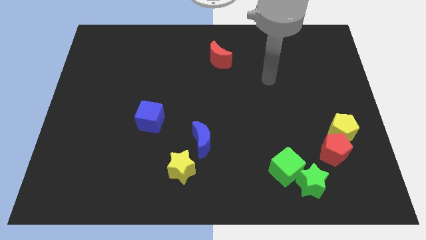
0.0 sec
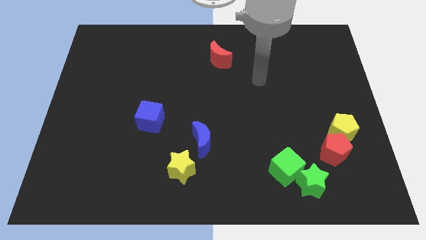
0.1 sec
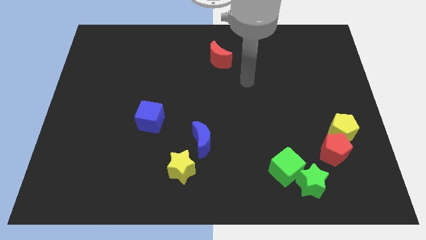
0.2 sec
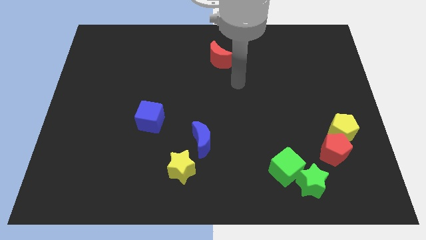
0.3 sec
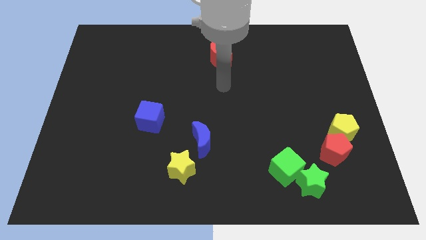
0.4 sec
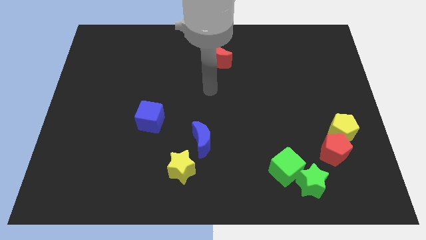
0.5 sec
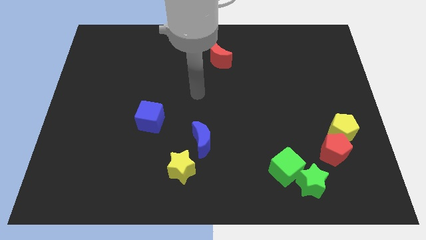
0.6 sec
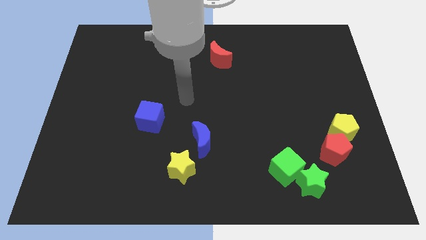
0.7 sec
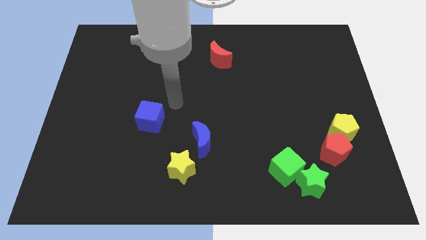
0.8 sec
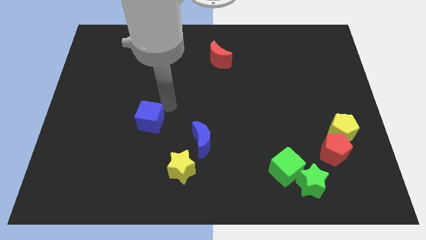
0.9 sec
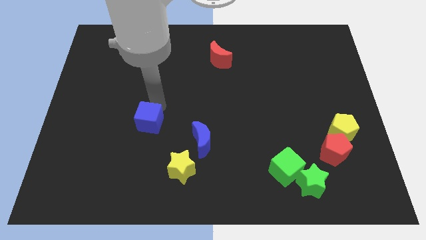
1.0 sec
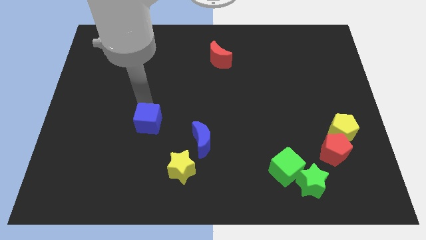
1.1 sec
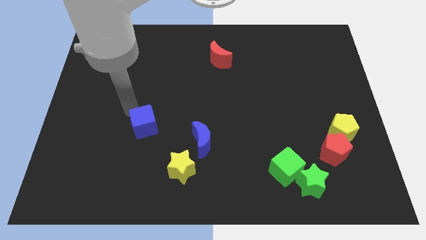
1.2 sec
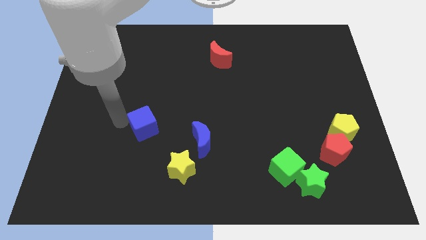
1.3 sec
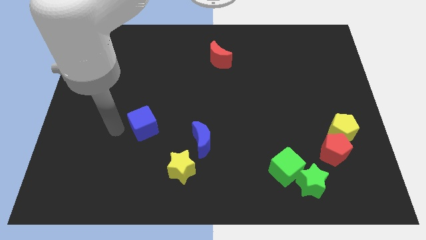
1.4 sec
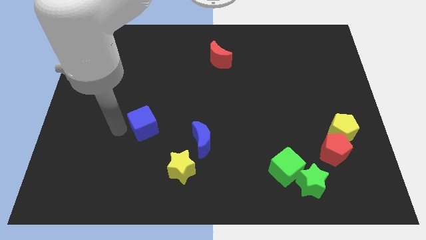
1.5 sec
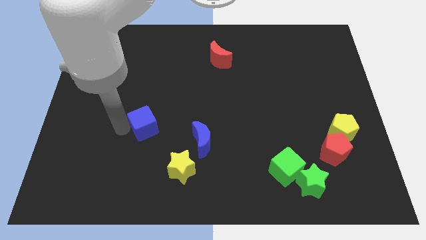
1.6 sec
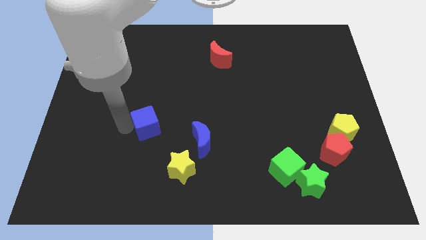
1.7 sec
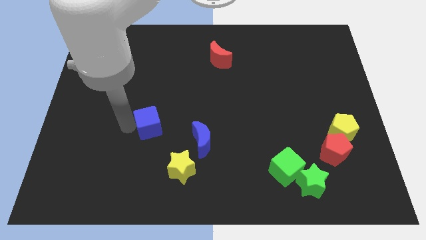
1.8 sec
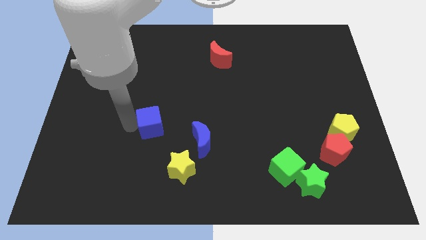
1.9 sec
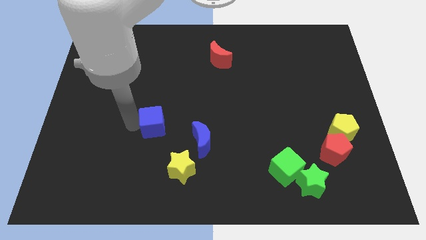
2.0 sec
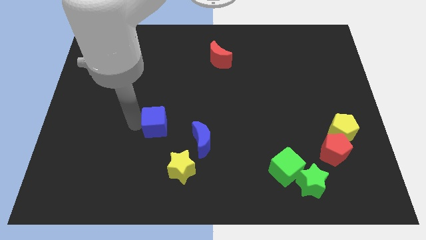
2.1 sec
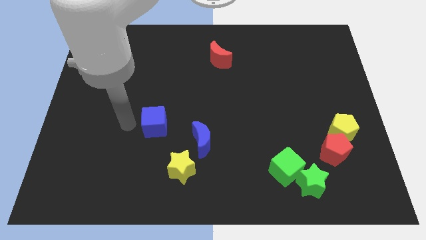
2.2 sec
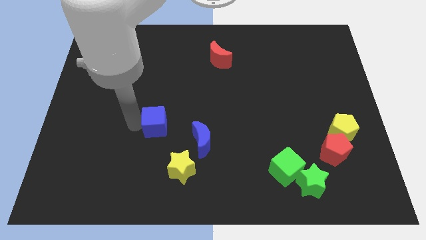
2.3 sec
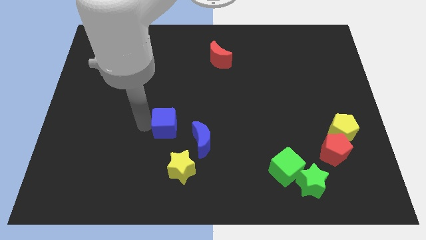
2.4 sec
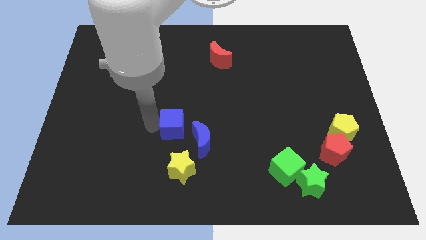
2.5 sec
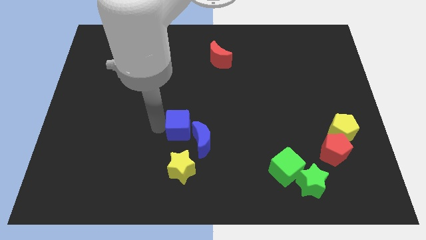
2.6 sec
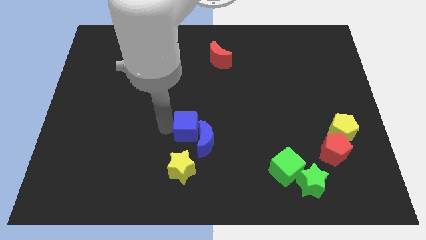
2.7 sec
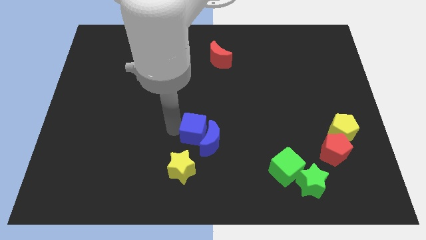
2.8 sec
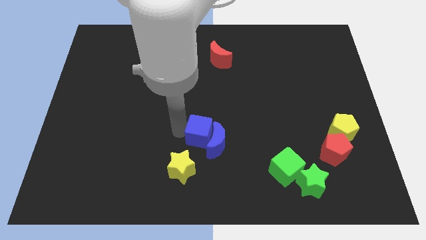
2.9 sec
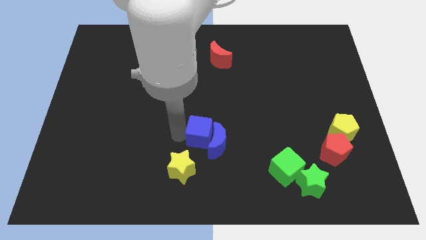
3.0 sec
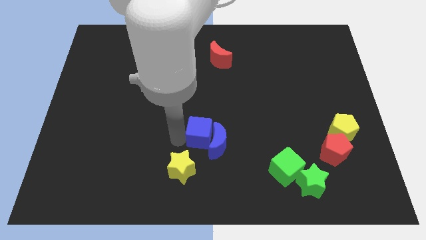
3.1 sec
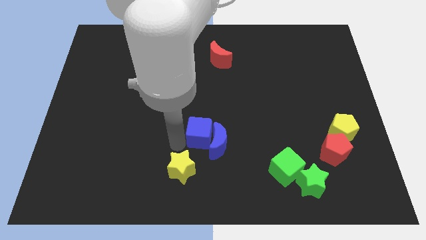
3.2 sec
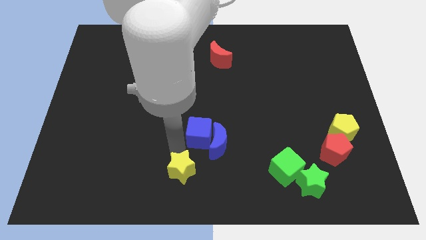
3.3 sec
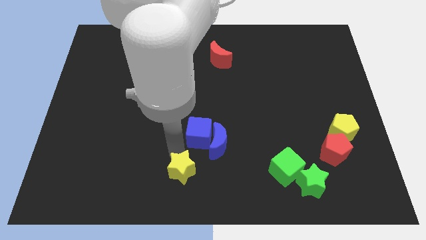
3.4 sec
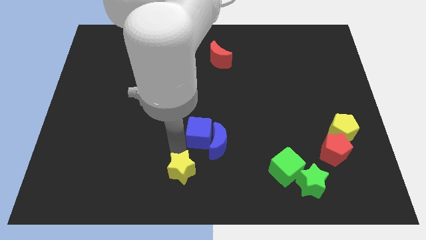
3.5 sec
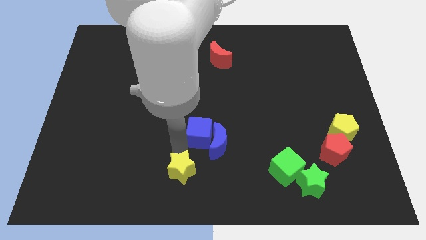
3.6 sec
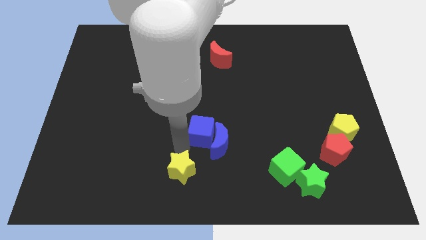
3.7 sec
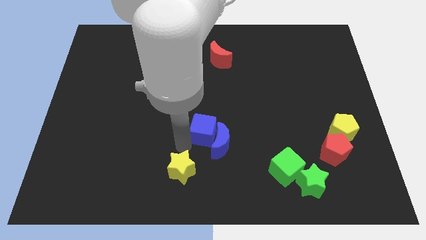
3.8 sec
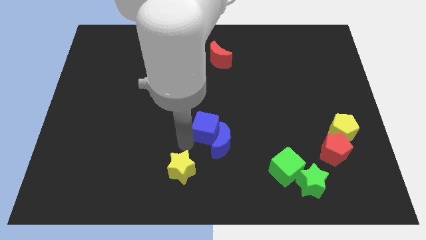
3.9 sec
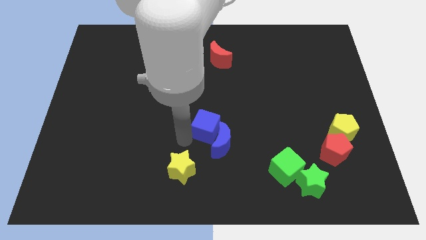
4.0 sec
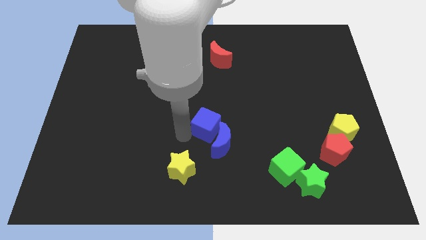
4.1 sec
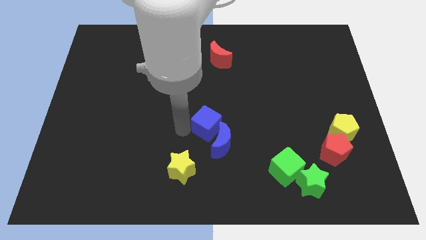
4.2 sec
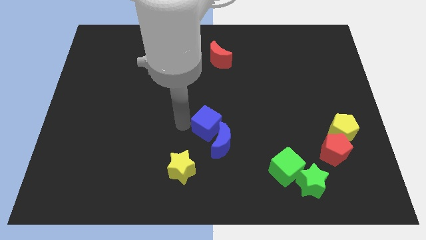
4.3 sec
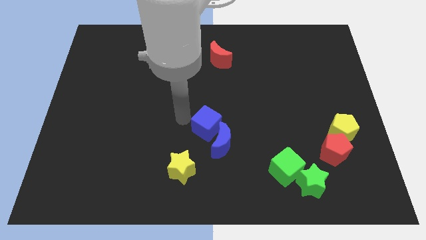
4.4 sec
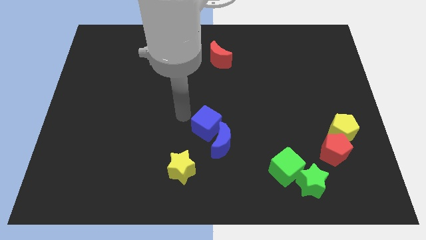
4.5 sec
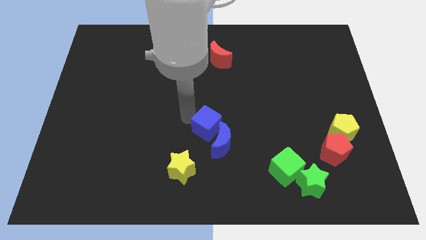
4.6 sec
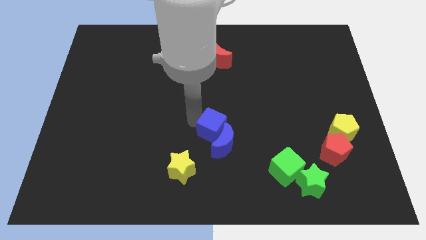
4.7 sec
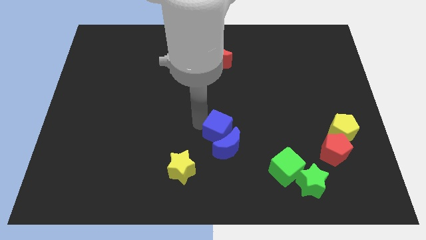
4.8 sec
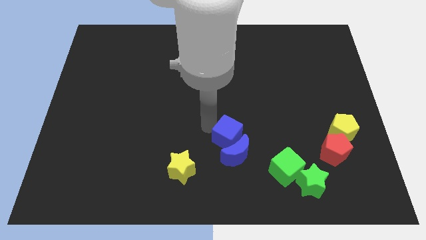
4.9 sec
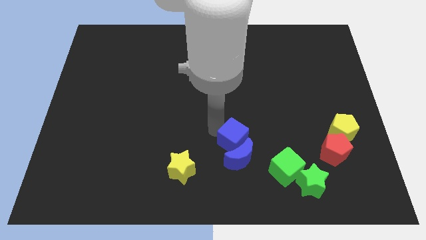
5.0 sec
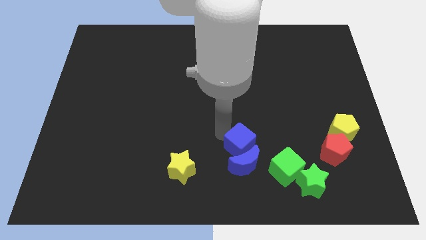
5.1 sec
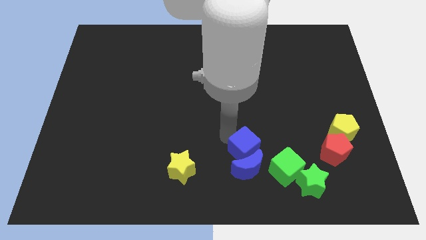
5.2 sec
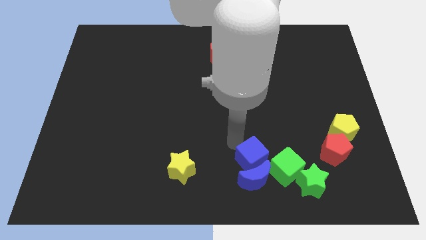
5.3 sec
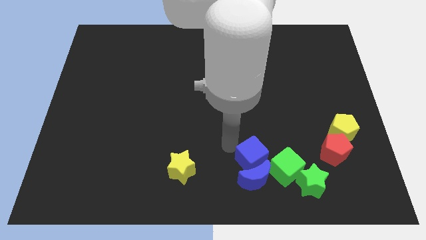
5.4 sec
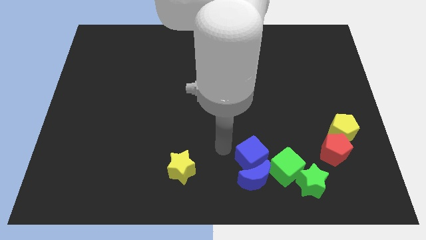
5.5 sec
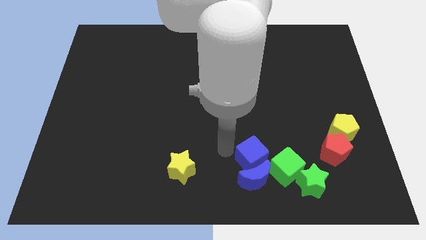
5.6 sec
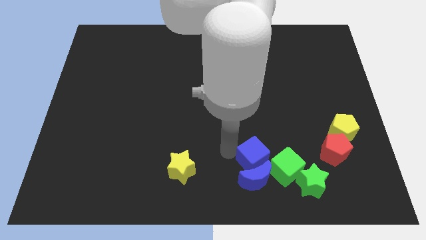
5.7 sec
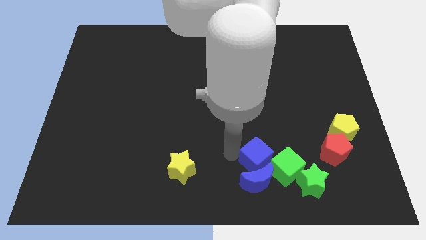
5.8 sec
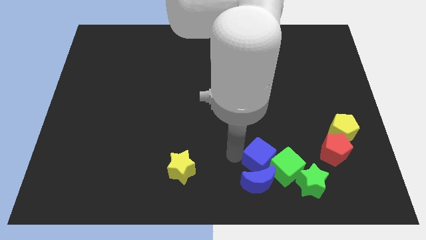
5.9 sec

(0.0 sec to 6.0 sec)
slide the blue cube close to the green cube

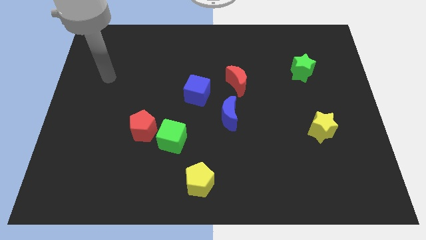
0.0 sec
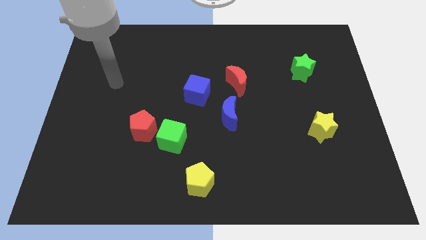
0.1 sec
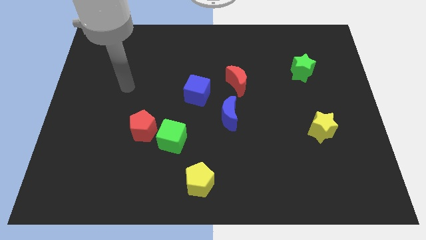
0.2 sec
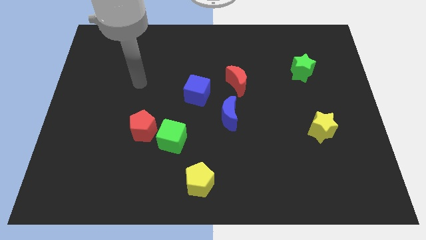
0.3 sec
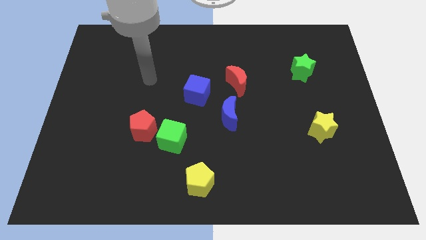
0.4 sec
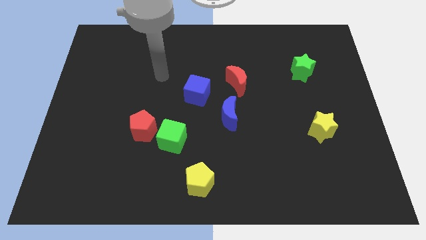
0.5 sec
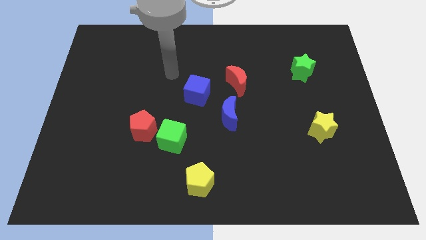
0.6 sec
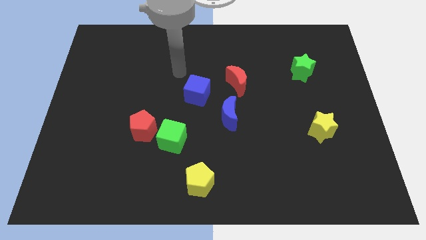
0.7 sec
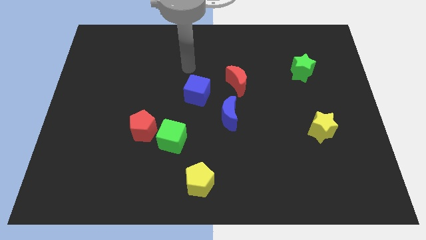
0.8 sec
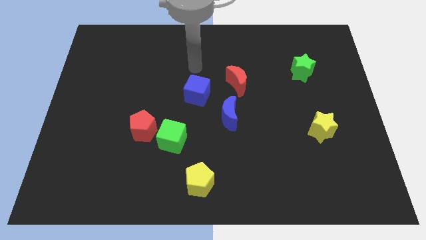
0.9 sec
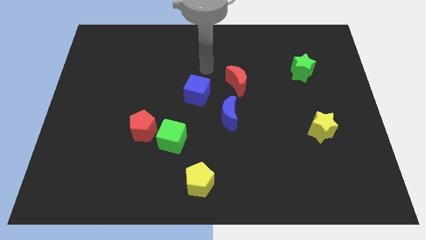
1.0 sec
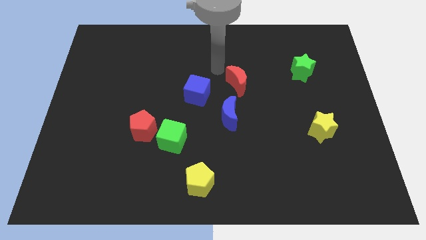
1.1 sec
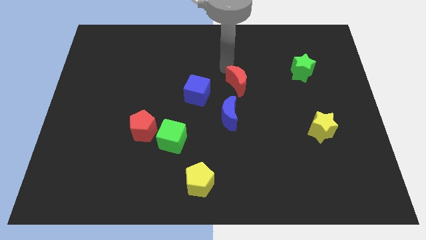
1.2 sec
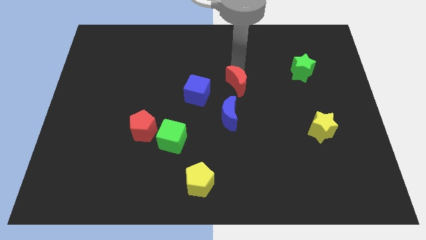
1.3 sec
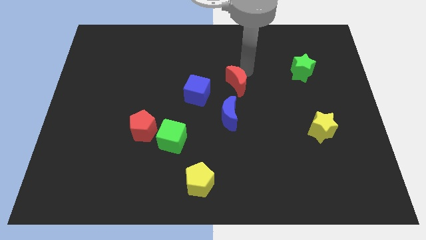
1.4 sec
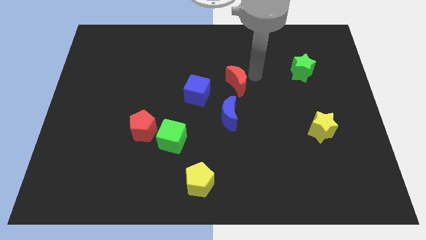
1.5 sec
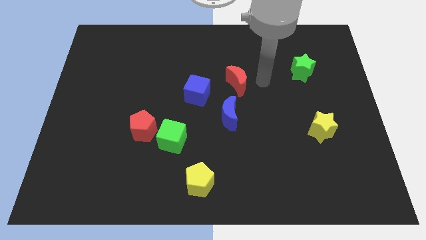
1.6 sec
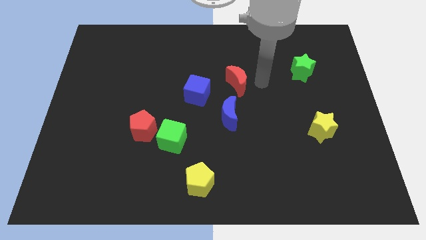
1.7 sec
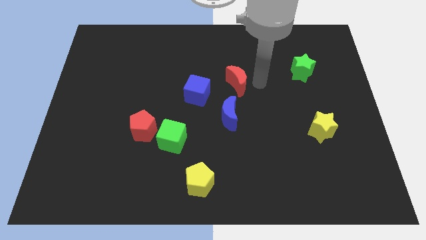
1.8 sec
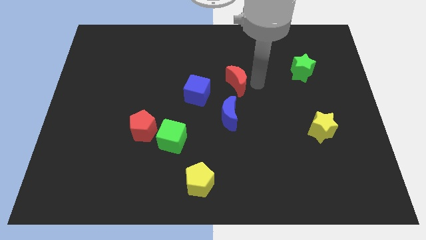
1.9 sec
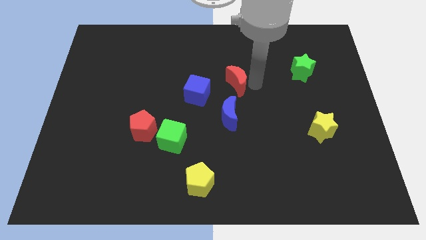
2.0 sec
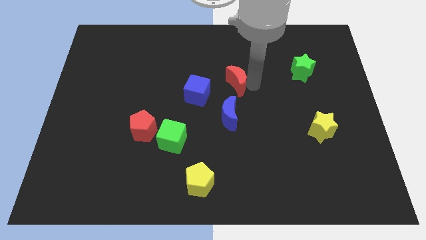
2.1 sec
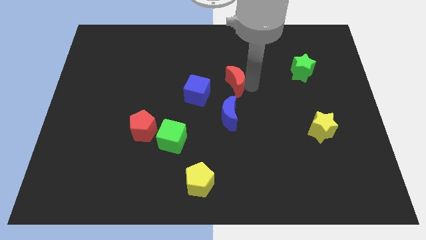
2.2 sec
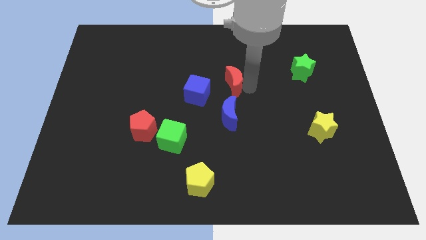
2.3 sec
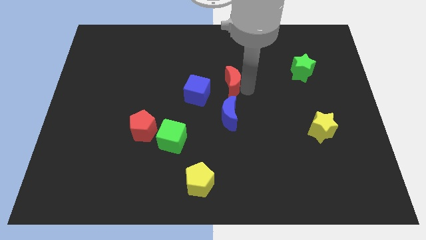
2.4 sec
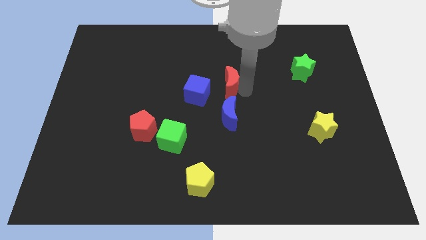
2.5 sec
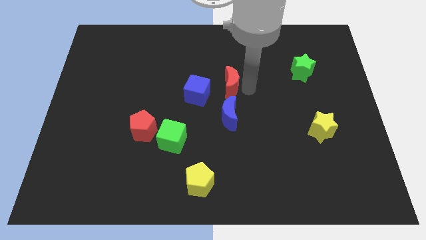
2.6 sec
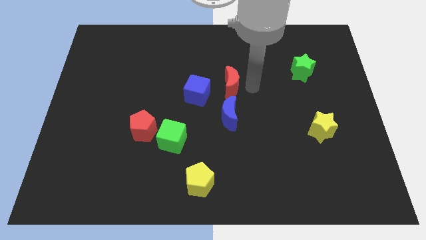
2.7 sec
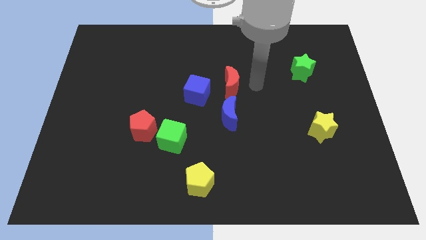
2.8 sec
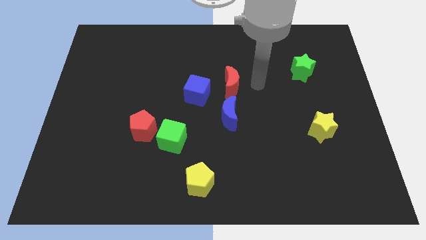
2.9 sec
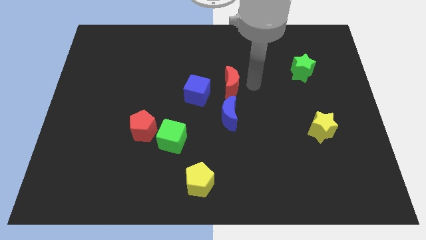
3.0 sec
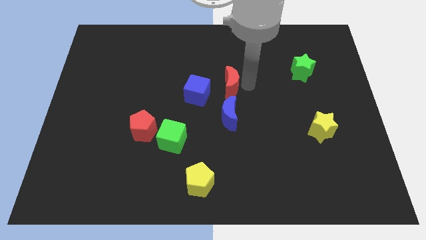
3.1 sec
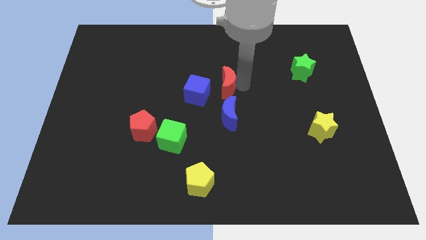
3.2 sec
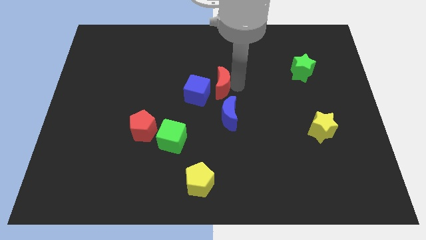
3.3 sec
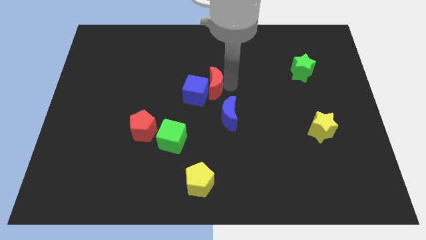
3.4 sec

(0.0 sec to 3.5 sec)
slide the red moon close to the blue cube
